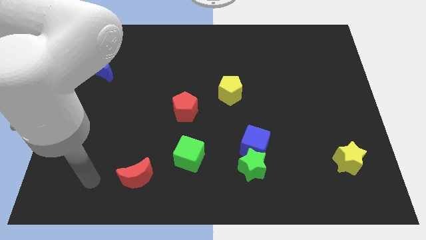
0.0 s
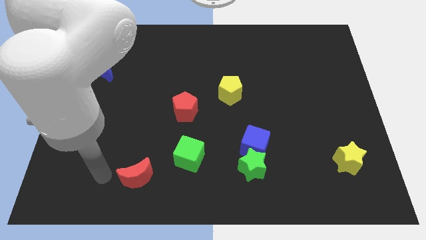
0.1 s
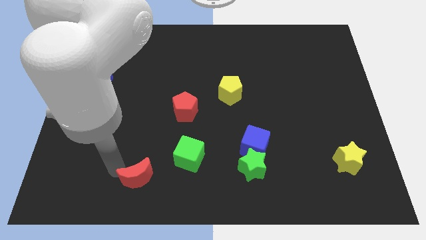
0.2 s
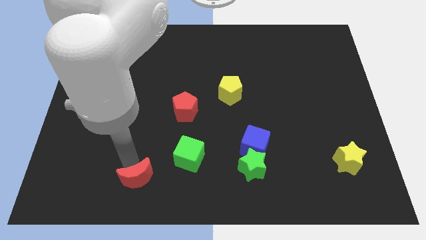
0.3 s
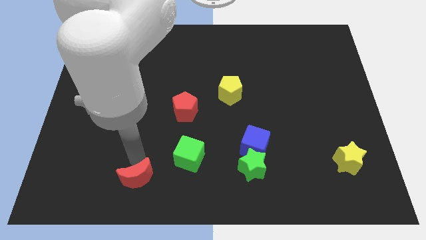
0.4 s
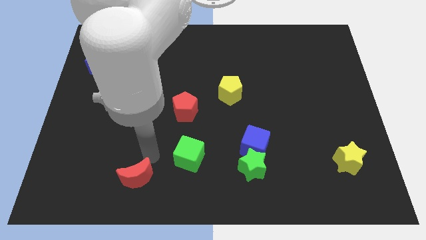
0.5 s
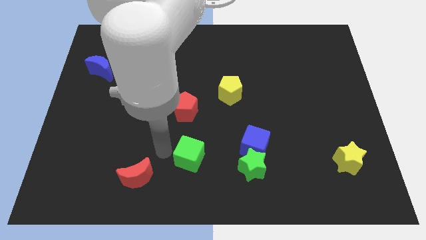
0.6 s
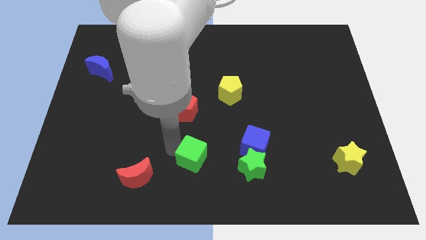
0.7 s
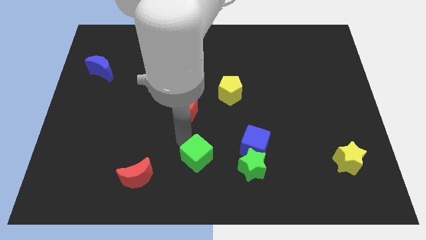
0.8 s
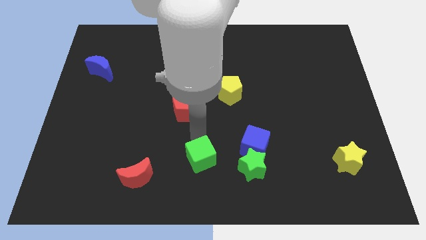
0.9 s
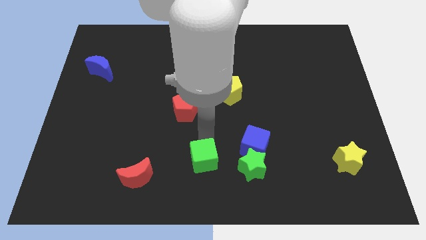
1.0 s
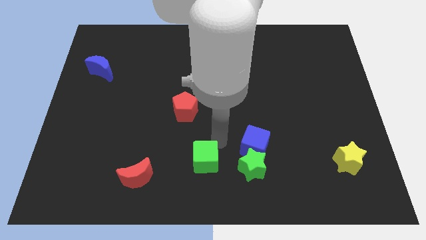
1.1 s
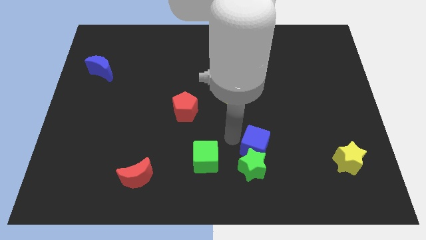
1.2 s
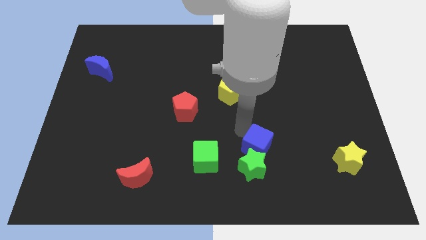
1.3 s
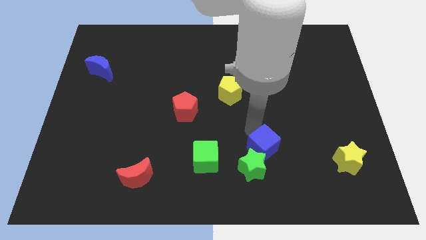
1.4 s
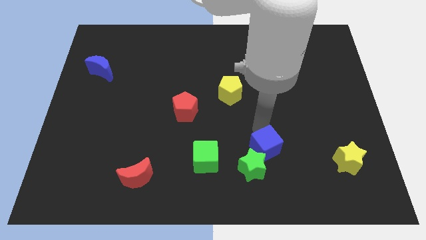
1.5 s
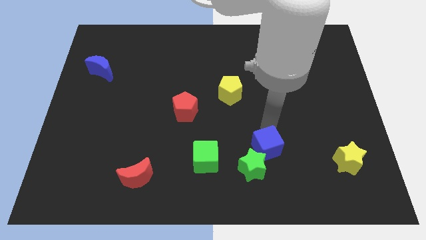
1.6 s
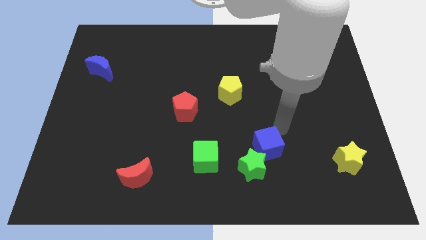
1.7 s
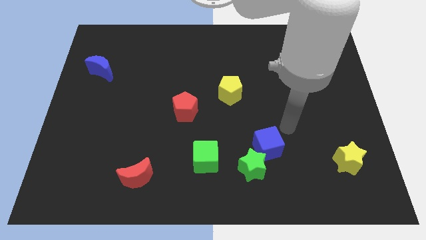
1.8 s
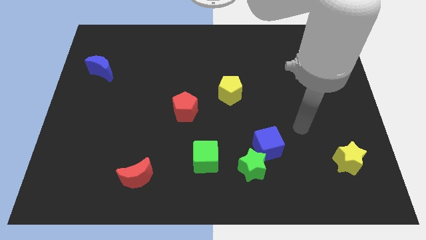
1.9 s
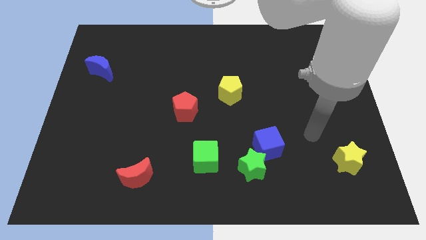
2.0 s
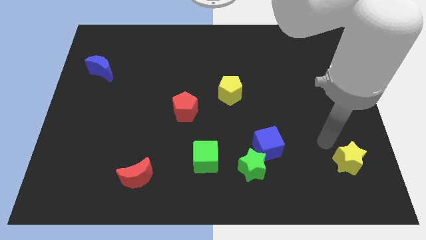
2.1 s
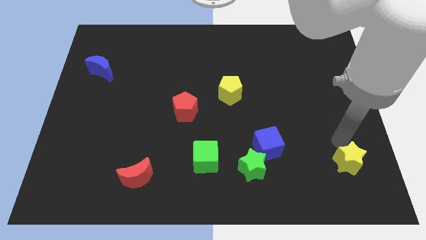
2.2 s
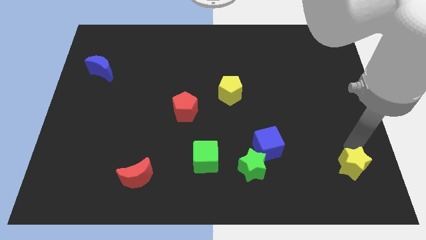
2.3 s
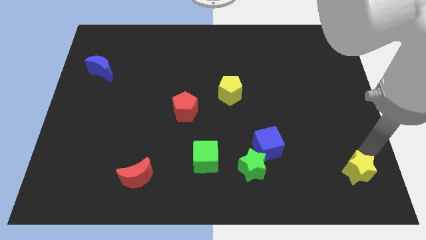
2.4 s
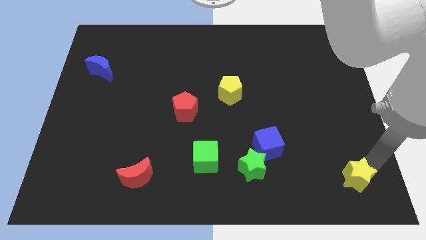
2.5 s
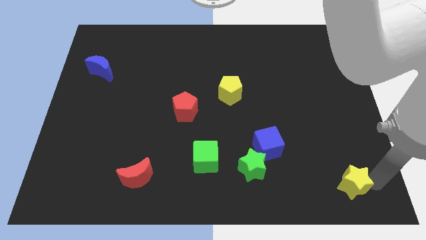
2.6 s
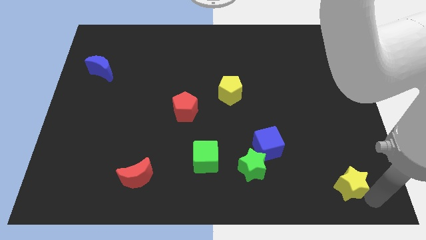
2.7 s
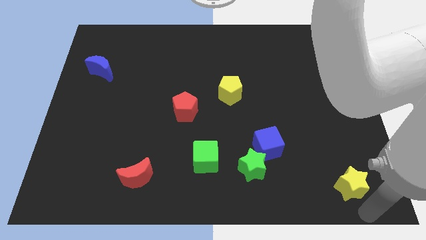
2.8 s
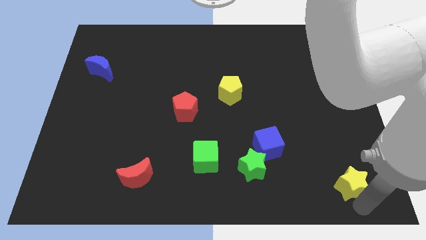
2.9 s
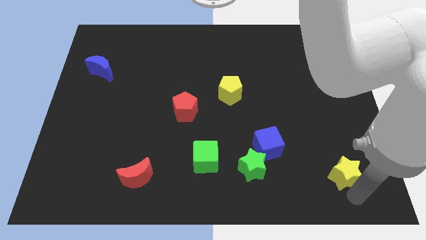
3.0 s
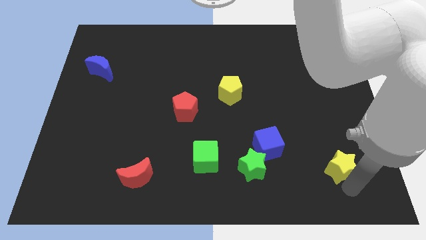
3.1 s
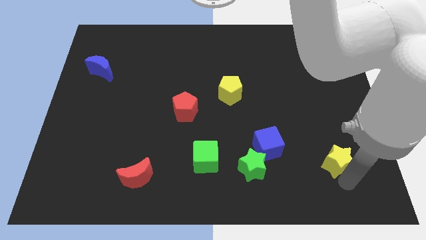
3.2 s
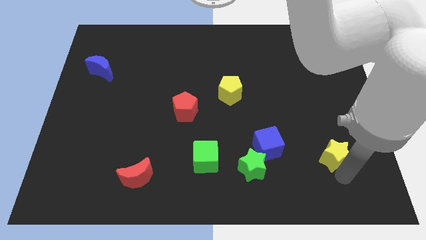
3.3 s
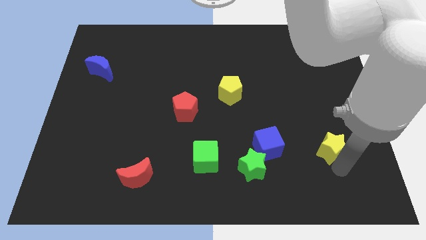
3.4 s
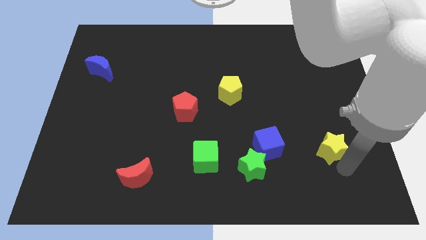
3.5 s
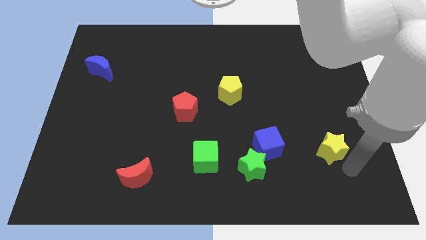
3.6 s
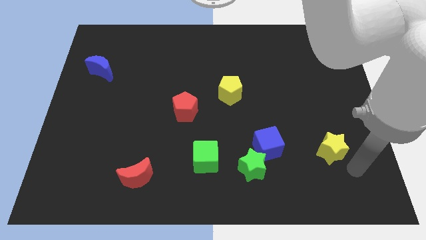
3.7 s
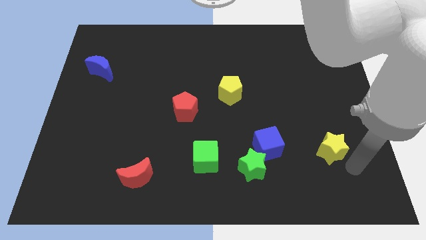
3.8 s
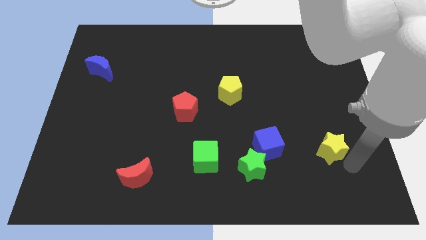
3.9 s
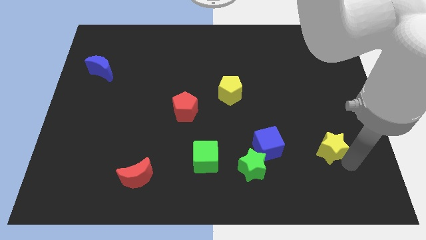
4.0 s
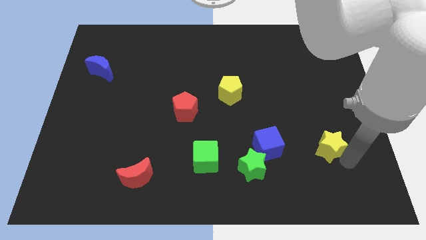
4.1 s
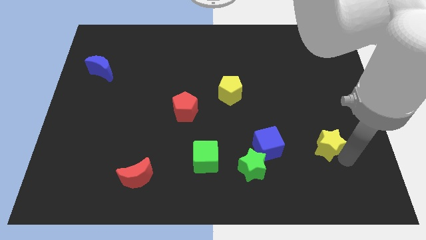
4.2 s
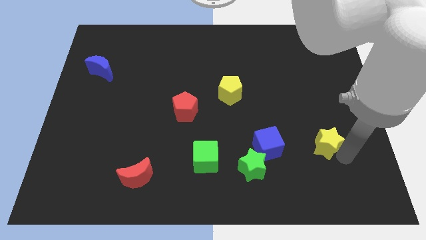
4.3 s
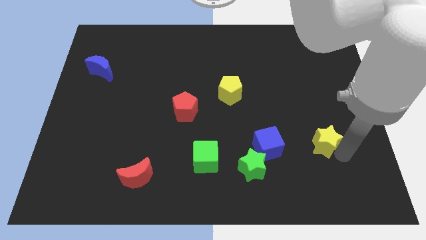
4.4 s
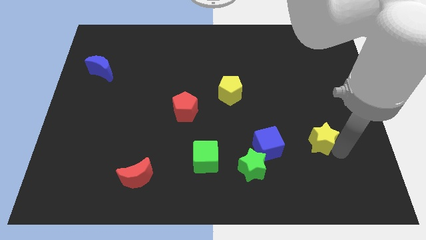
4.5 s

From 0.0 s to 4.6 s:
slide the yellow star a little bit up and left

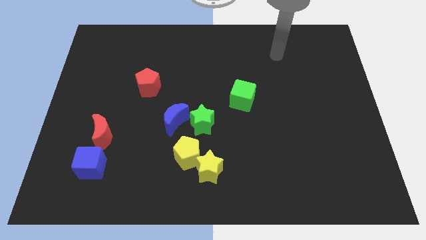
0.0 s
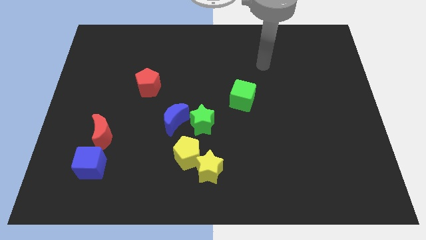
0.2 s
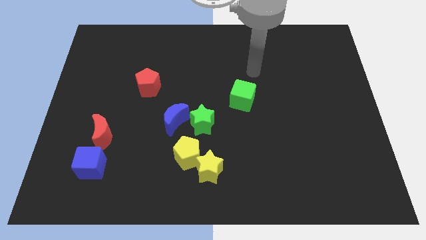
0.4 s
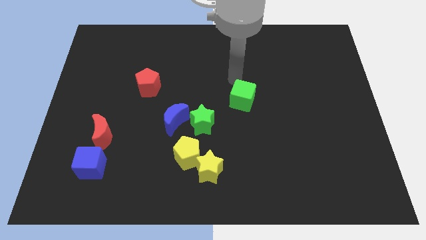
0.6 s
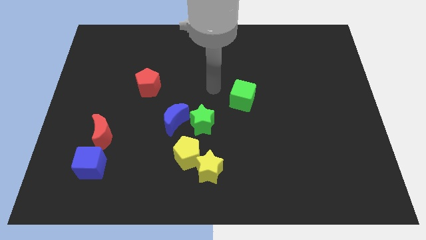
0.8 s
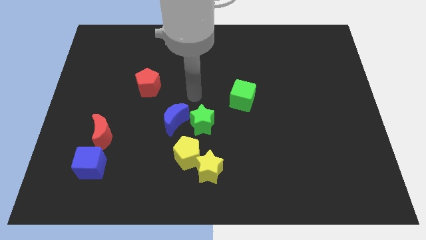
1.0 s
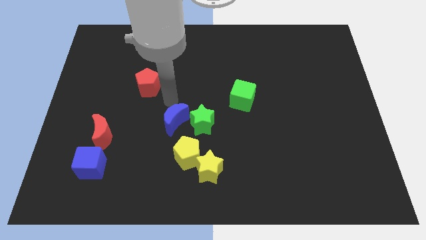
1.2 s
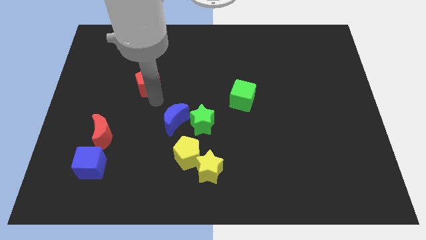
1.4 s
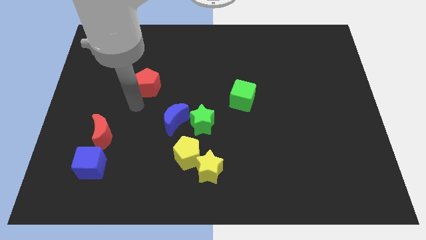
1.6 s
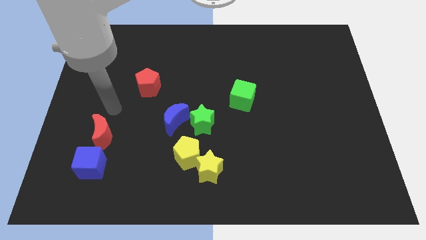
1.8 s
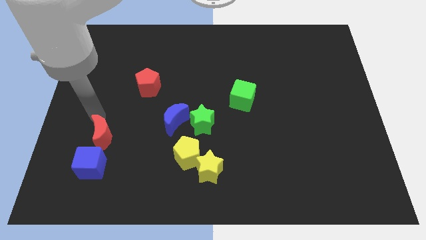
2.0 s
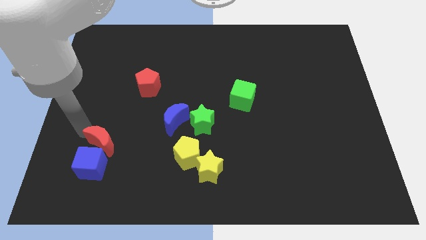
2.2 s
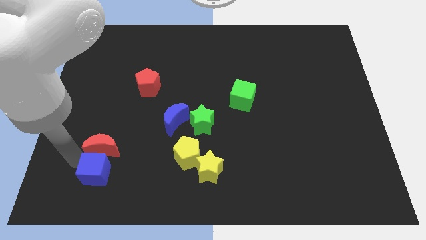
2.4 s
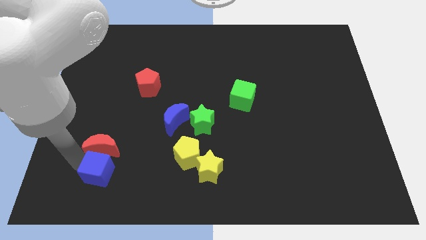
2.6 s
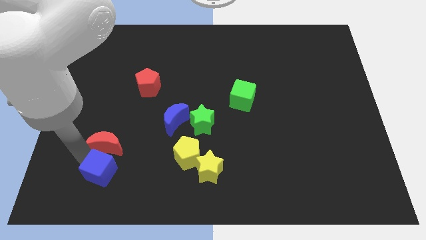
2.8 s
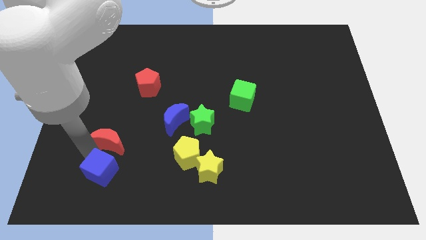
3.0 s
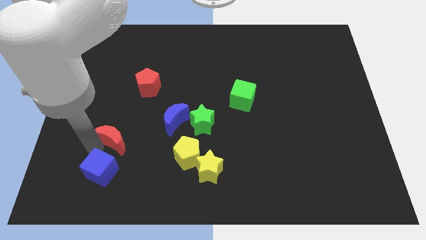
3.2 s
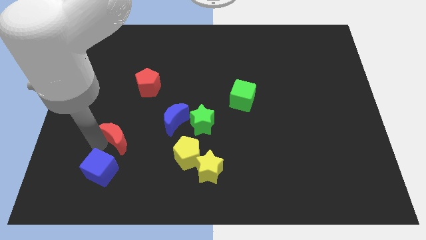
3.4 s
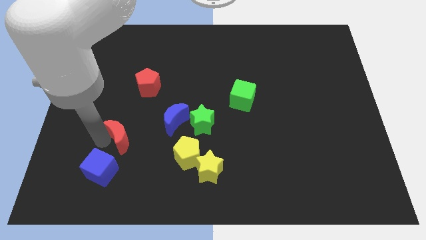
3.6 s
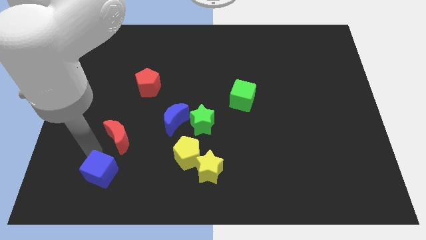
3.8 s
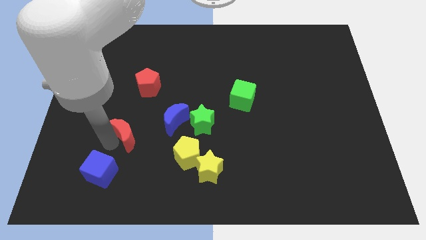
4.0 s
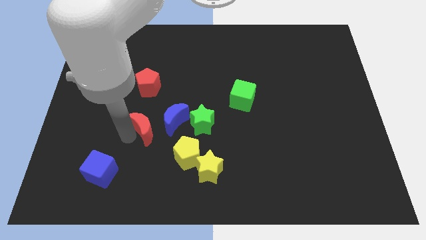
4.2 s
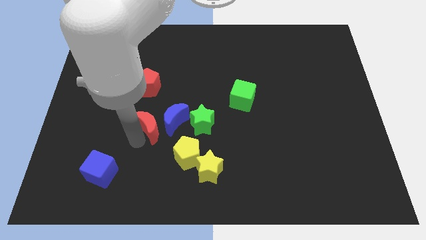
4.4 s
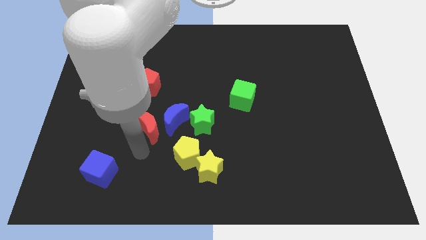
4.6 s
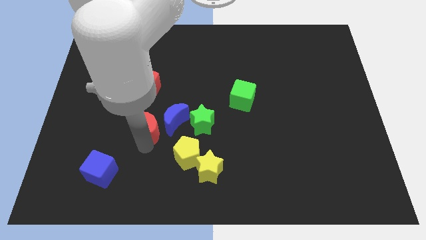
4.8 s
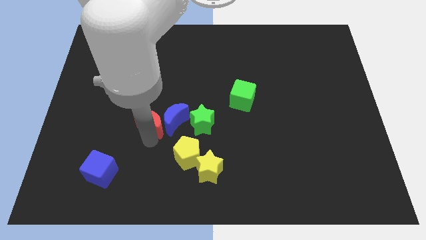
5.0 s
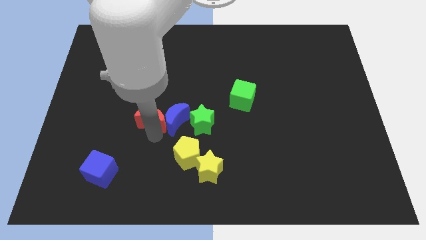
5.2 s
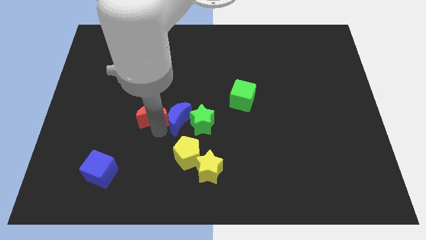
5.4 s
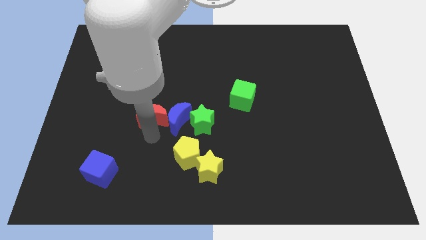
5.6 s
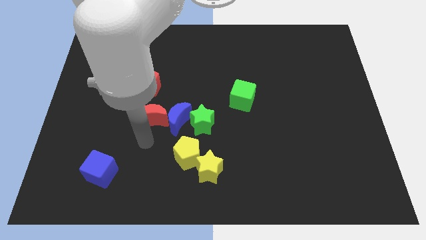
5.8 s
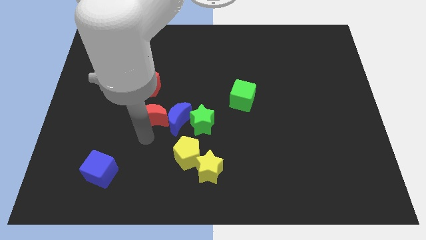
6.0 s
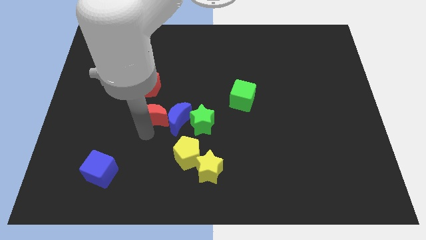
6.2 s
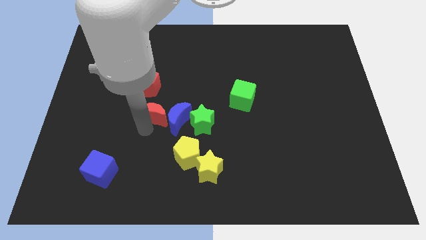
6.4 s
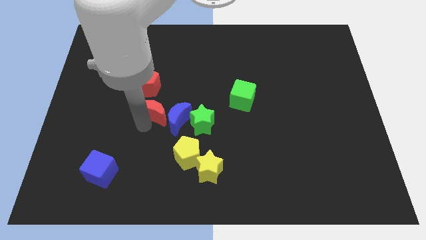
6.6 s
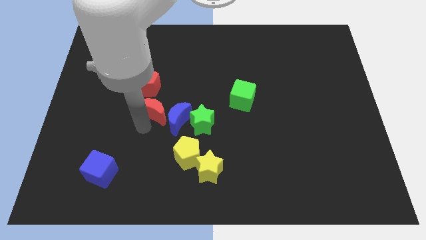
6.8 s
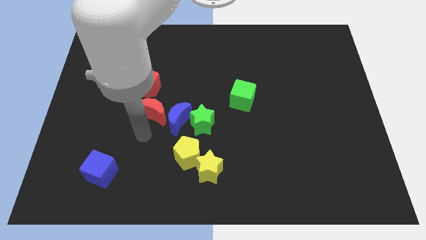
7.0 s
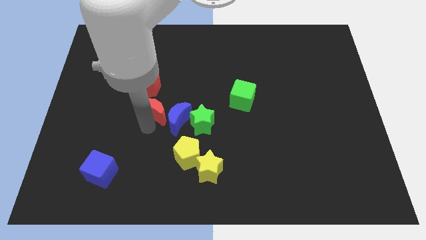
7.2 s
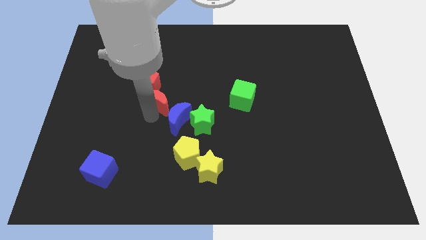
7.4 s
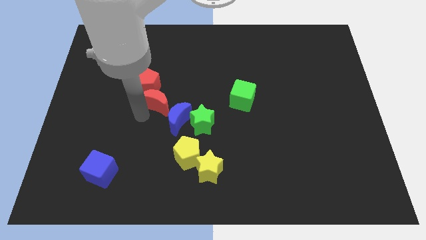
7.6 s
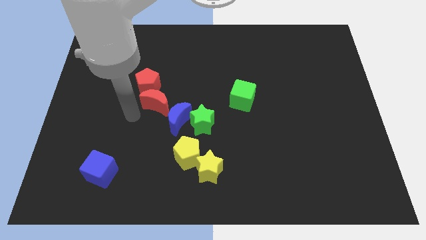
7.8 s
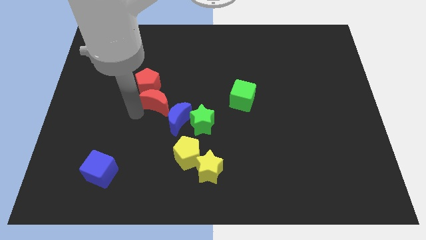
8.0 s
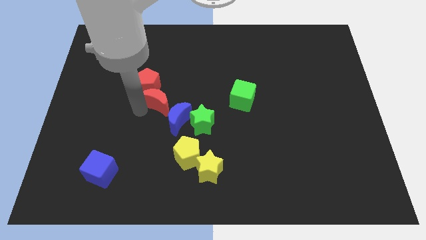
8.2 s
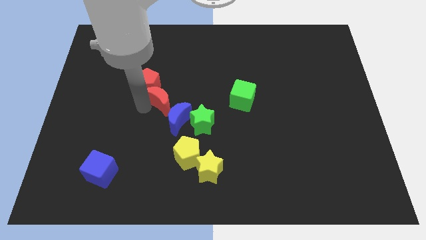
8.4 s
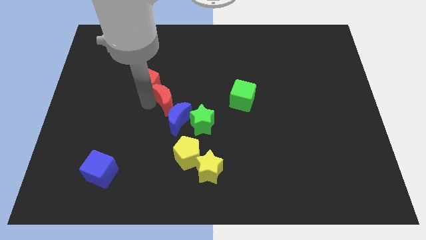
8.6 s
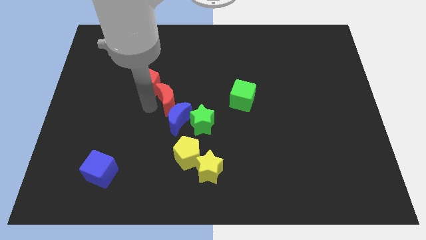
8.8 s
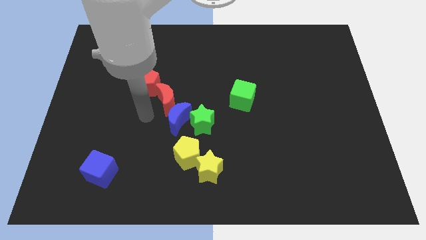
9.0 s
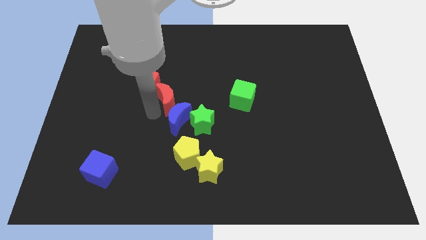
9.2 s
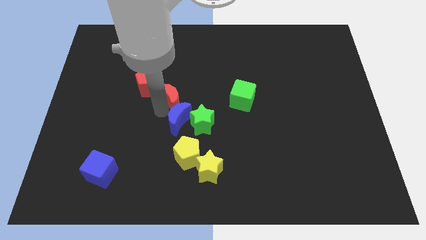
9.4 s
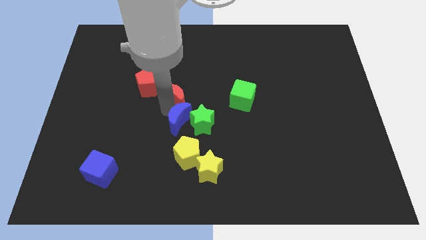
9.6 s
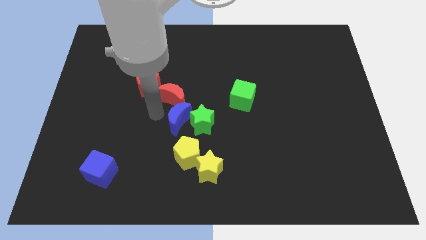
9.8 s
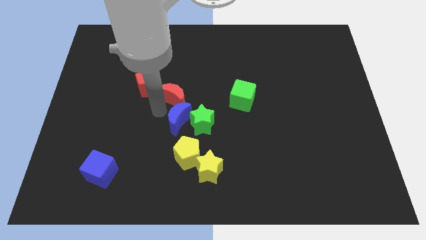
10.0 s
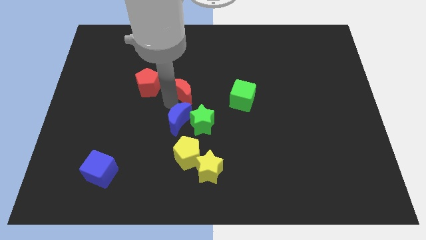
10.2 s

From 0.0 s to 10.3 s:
push the red moon upwards and to the right
